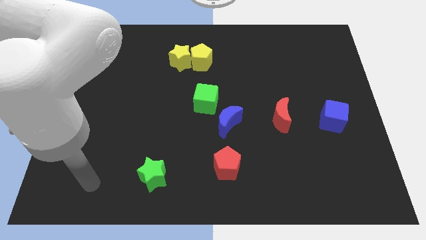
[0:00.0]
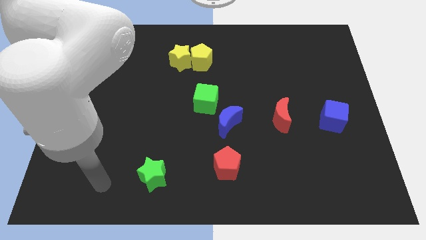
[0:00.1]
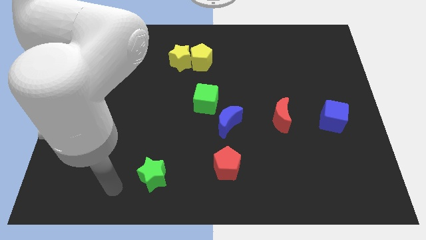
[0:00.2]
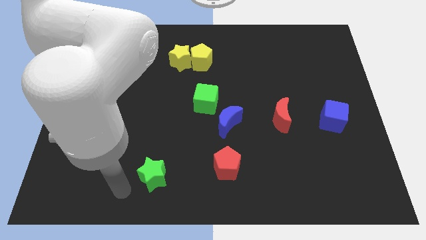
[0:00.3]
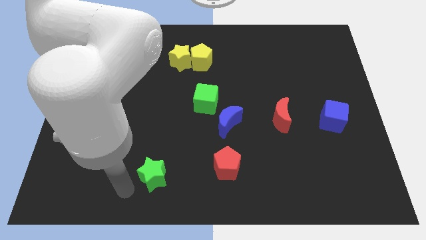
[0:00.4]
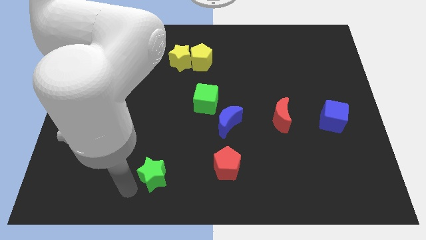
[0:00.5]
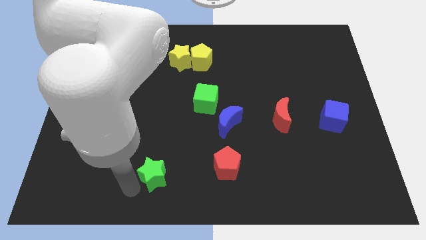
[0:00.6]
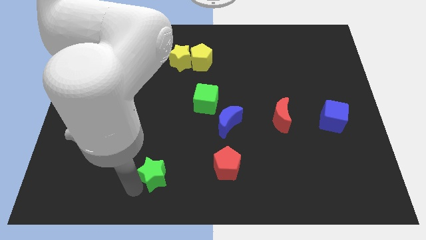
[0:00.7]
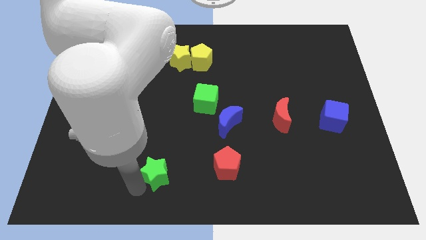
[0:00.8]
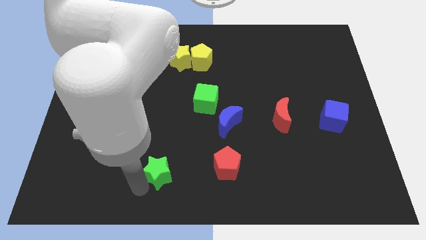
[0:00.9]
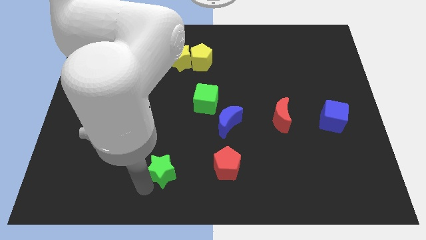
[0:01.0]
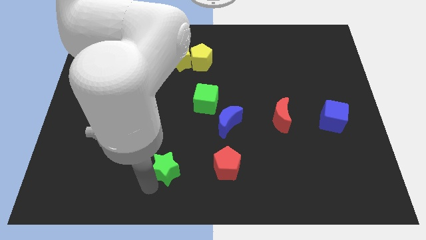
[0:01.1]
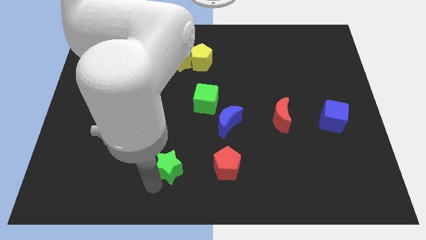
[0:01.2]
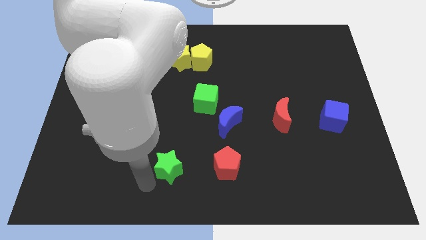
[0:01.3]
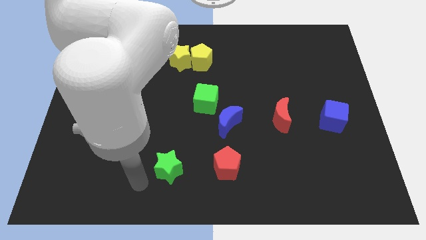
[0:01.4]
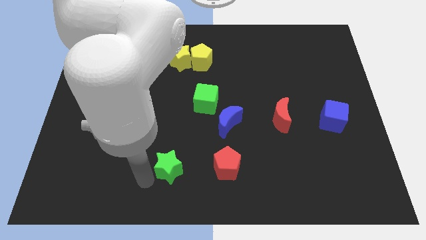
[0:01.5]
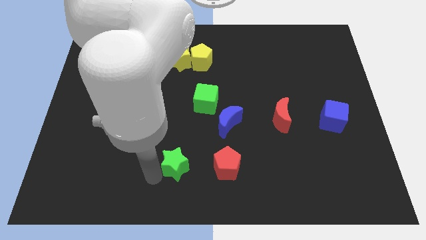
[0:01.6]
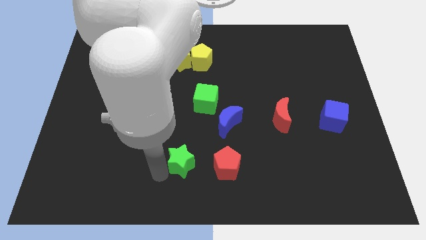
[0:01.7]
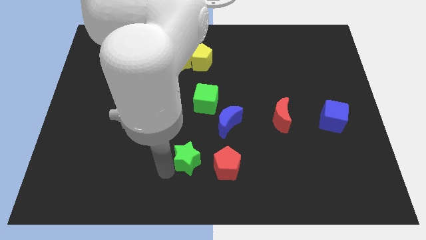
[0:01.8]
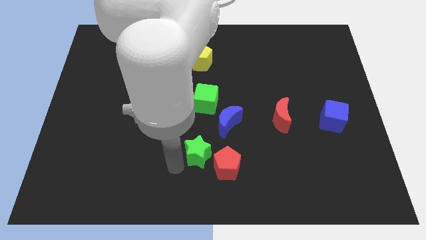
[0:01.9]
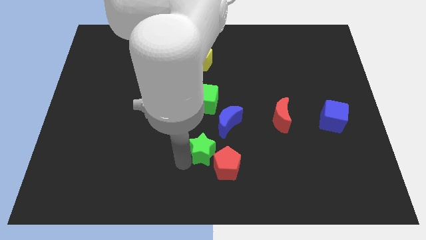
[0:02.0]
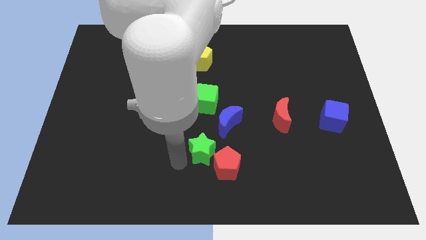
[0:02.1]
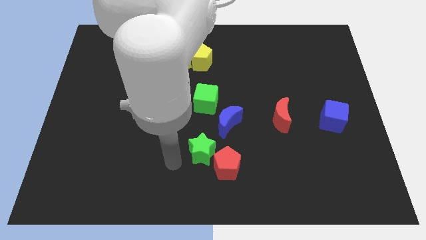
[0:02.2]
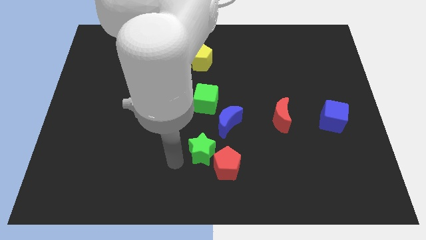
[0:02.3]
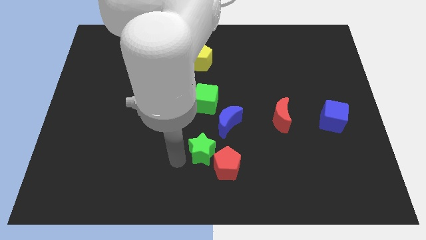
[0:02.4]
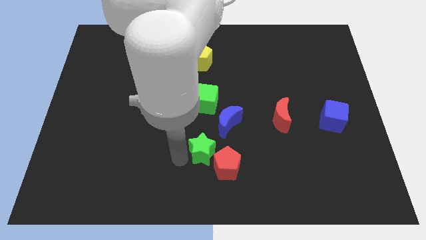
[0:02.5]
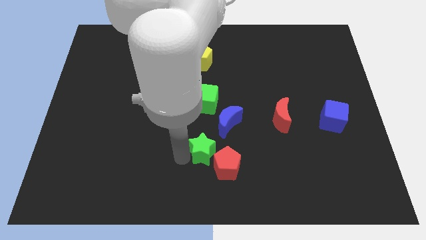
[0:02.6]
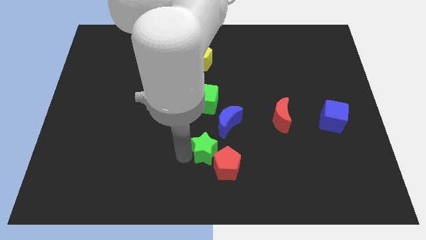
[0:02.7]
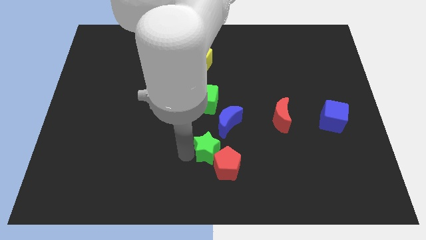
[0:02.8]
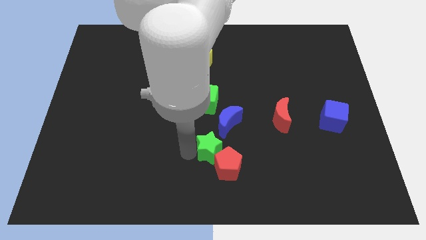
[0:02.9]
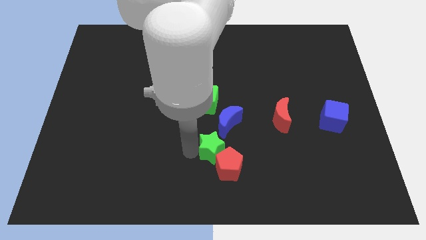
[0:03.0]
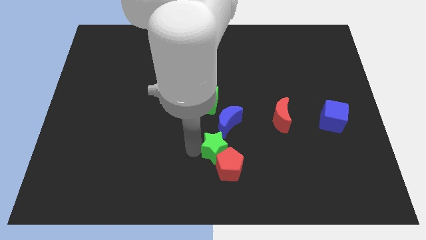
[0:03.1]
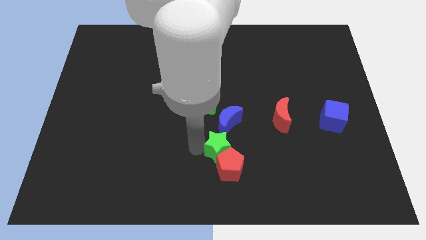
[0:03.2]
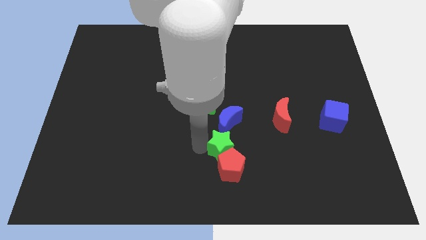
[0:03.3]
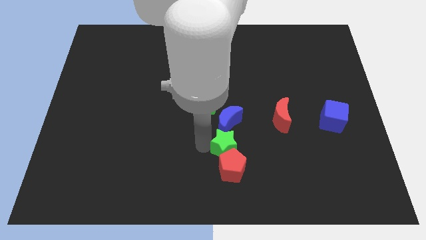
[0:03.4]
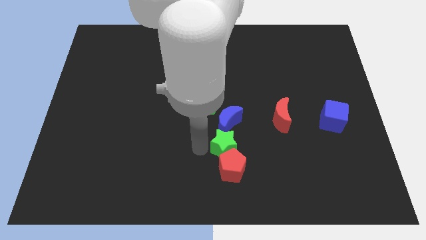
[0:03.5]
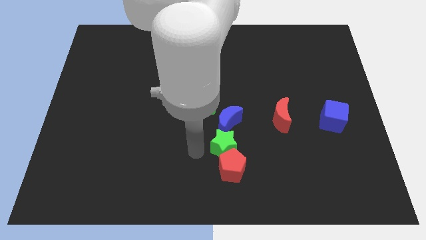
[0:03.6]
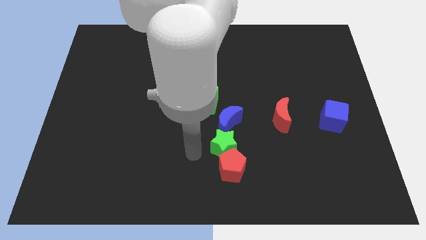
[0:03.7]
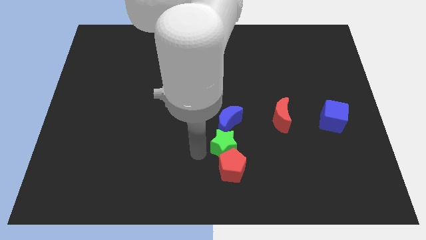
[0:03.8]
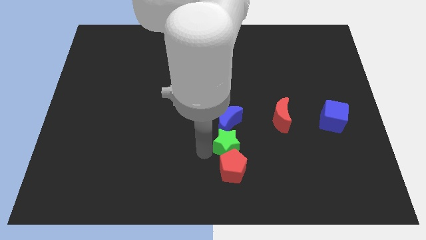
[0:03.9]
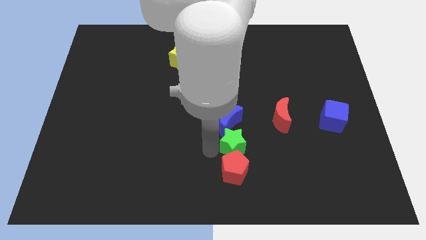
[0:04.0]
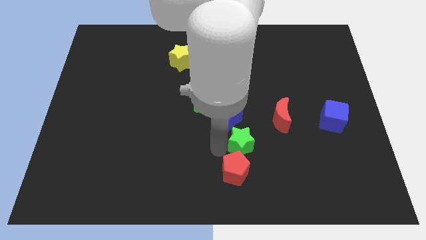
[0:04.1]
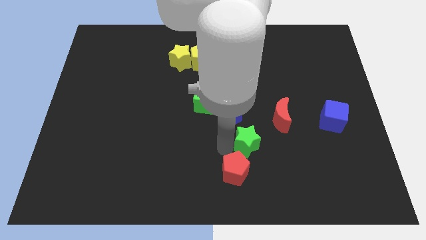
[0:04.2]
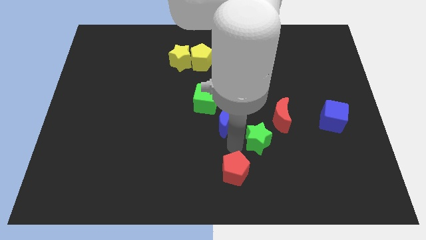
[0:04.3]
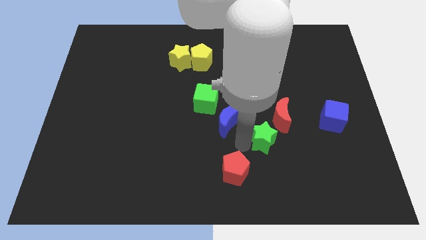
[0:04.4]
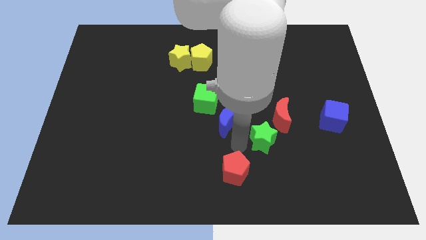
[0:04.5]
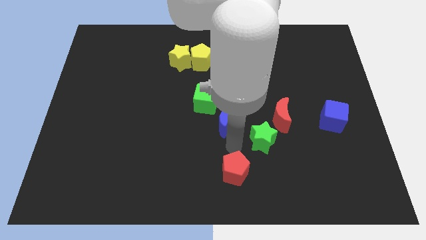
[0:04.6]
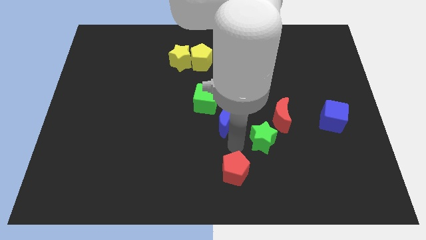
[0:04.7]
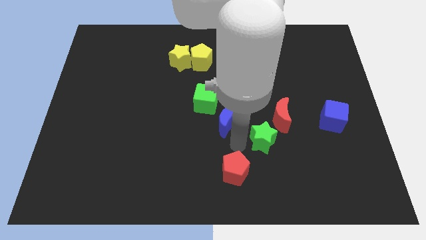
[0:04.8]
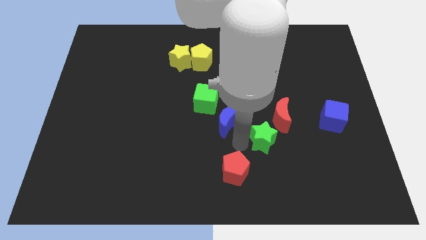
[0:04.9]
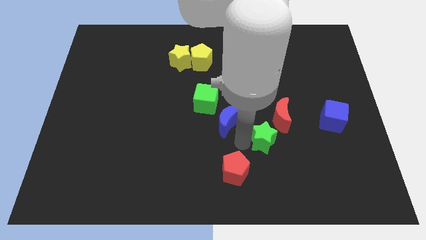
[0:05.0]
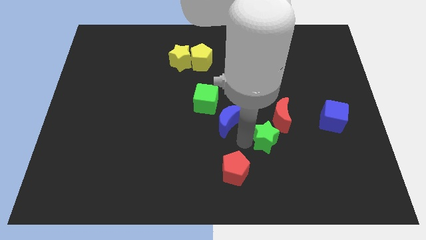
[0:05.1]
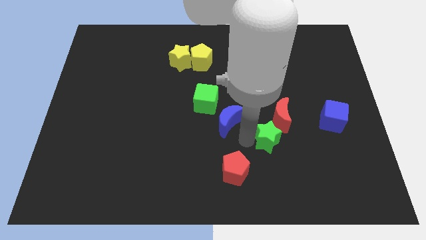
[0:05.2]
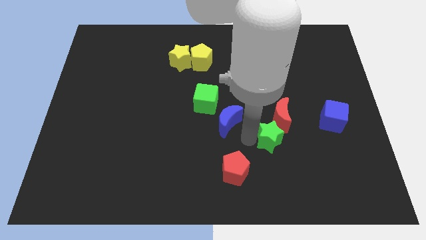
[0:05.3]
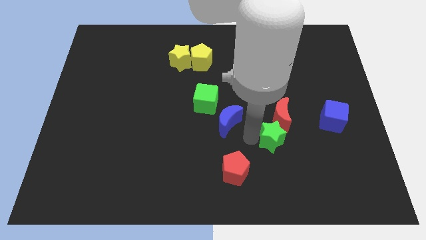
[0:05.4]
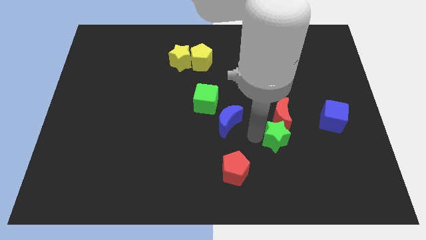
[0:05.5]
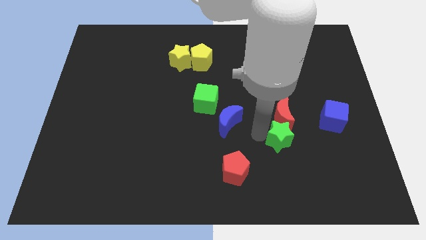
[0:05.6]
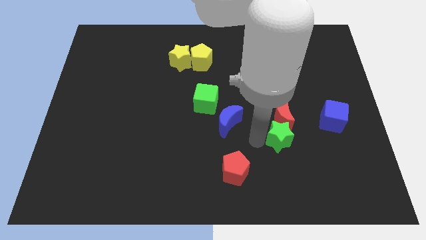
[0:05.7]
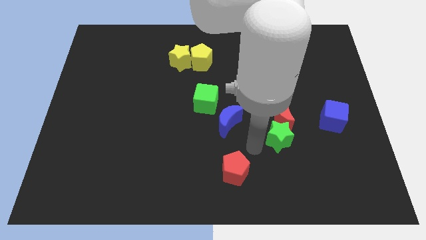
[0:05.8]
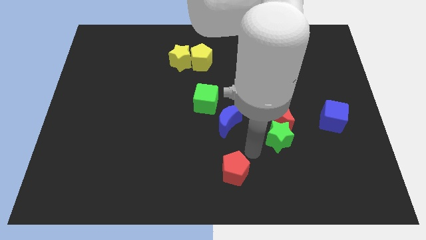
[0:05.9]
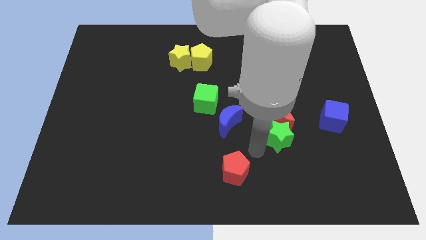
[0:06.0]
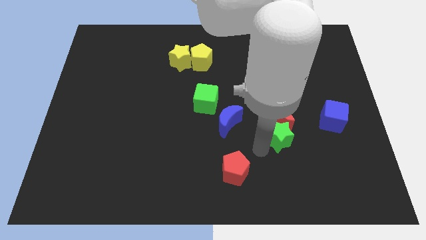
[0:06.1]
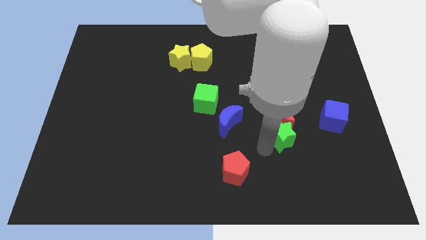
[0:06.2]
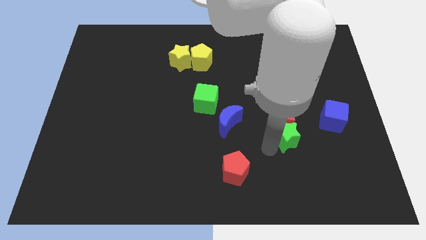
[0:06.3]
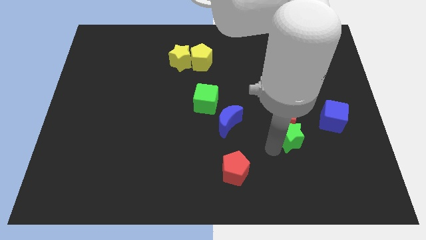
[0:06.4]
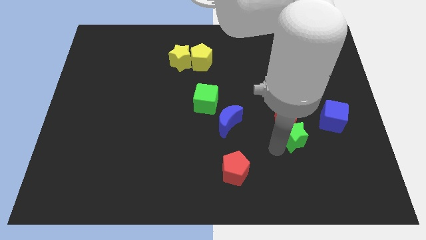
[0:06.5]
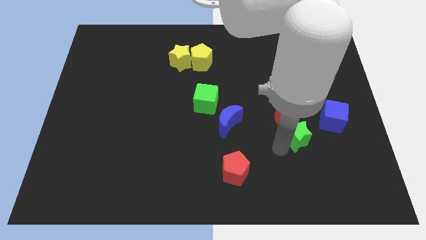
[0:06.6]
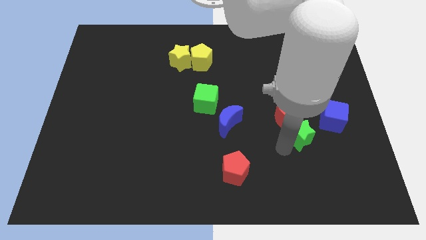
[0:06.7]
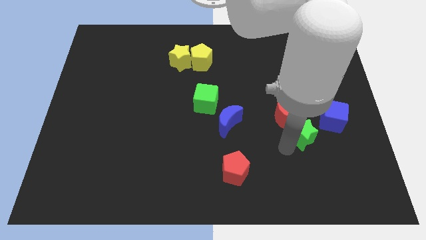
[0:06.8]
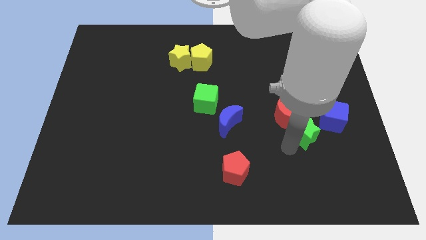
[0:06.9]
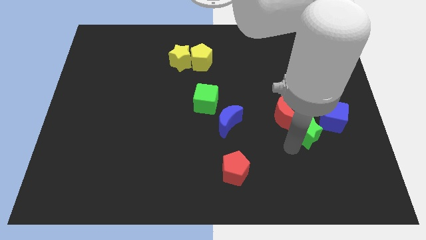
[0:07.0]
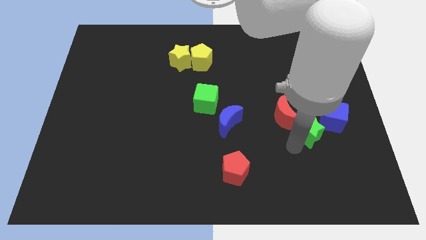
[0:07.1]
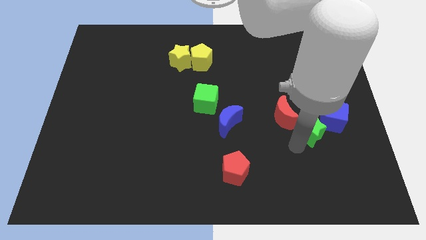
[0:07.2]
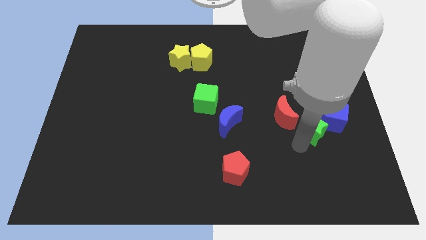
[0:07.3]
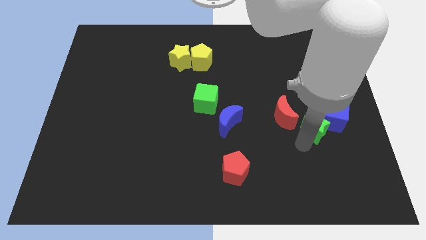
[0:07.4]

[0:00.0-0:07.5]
slide the green star close to the blue cube

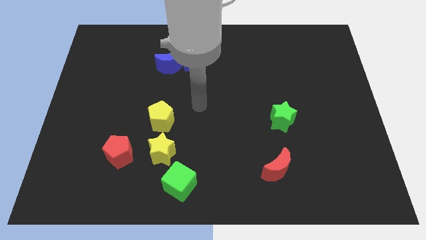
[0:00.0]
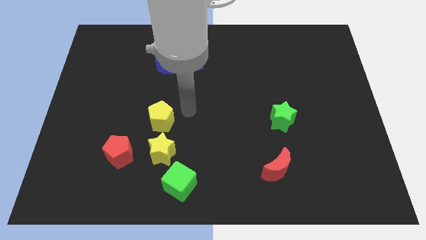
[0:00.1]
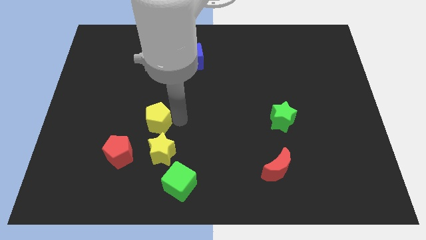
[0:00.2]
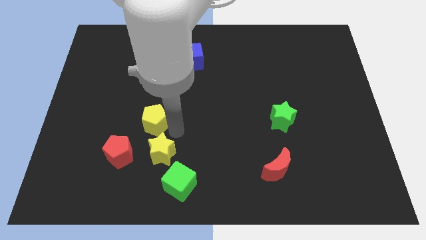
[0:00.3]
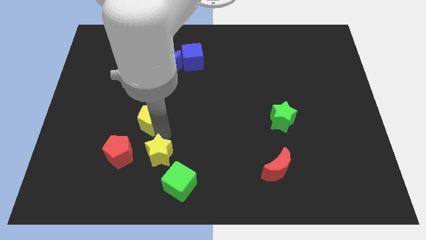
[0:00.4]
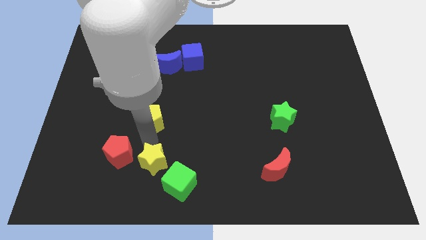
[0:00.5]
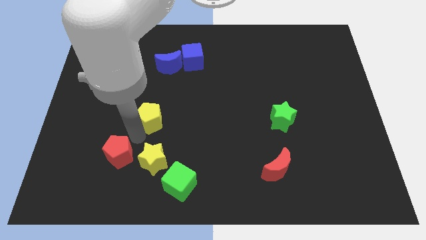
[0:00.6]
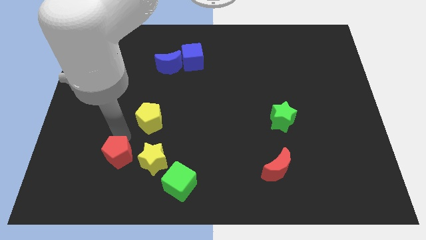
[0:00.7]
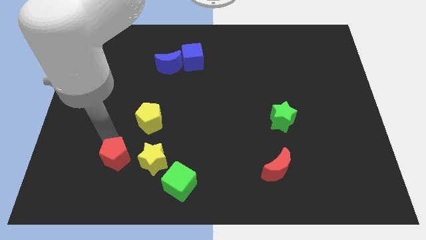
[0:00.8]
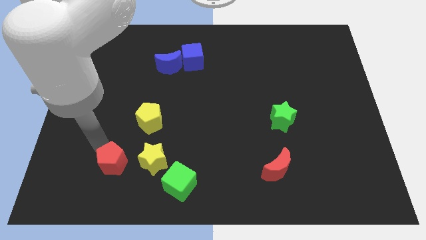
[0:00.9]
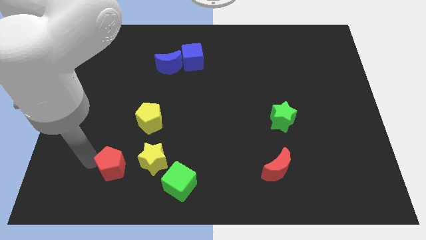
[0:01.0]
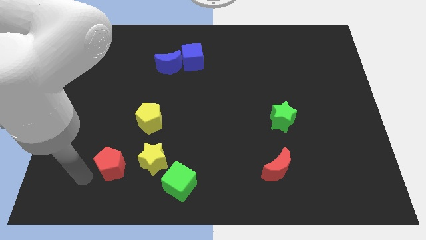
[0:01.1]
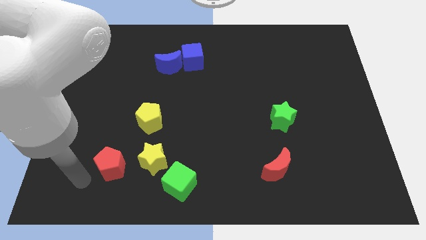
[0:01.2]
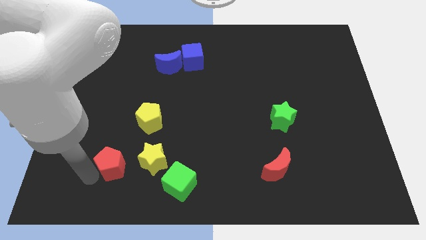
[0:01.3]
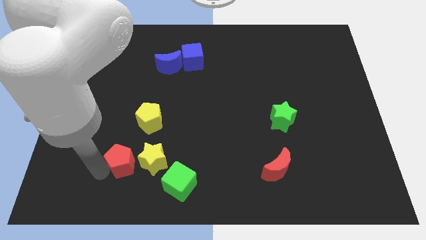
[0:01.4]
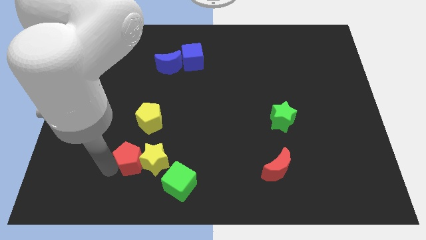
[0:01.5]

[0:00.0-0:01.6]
push the red pentagon next to the yellow star
